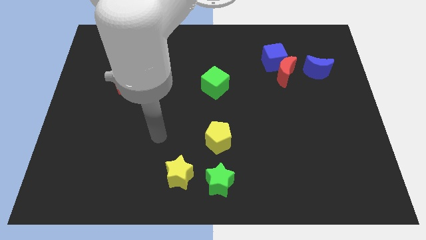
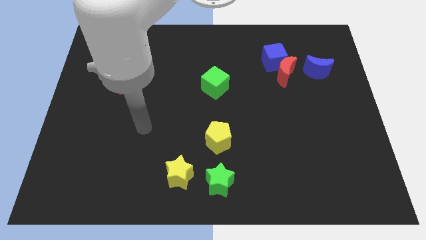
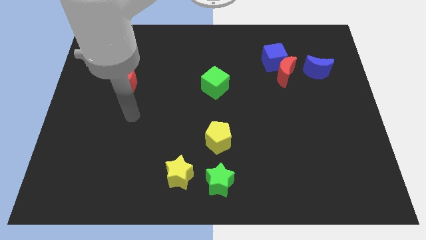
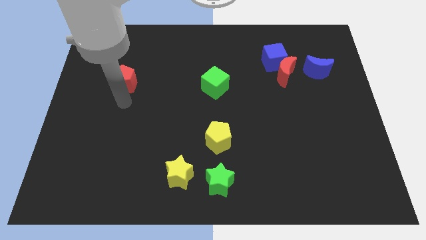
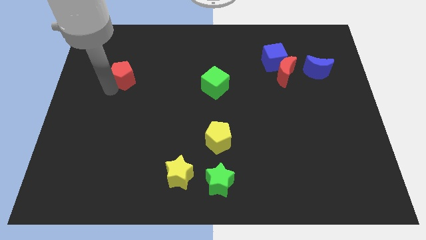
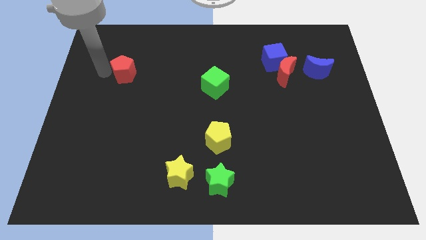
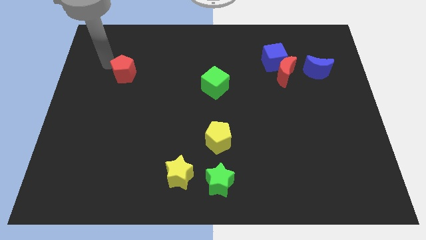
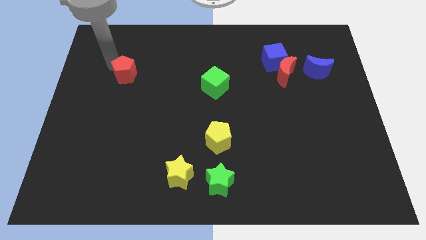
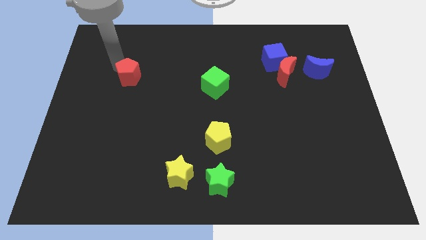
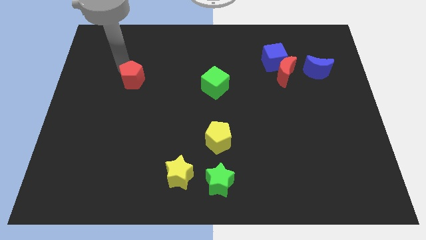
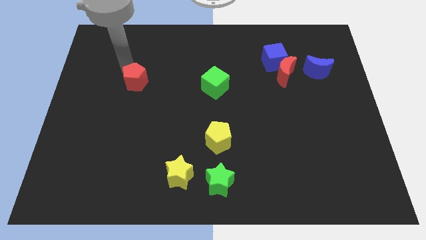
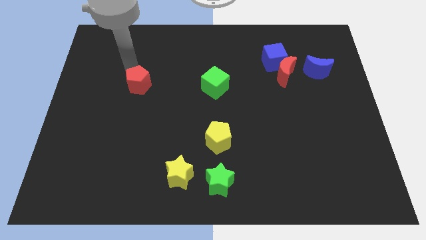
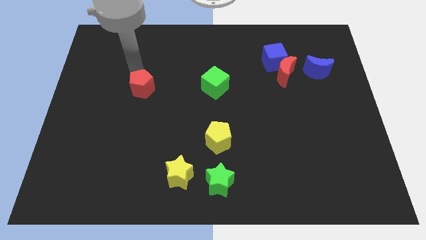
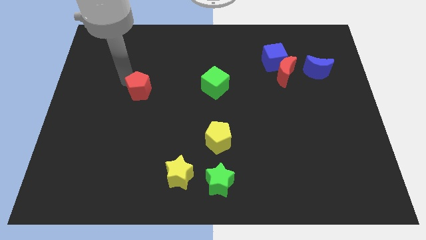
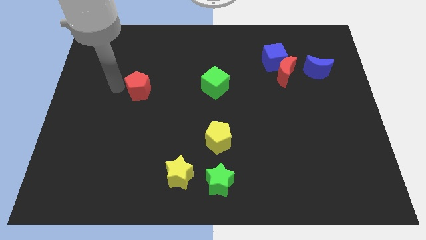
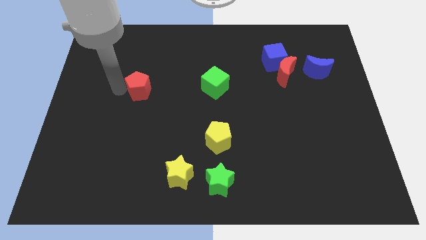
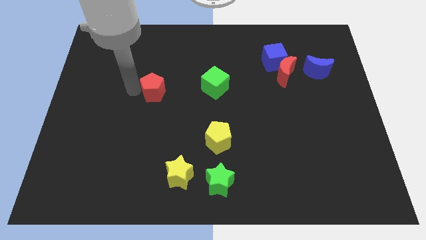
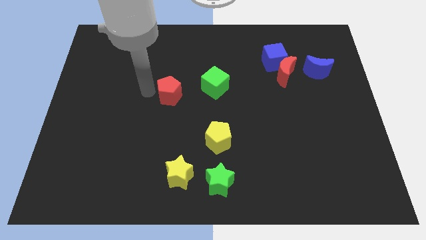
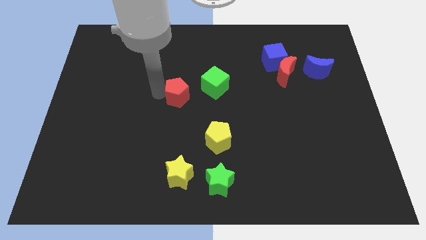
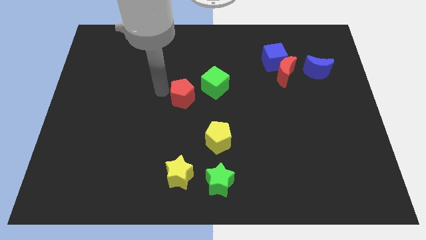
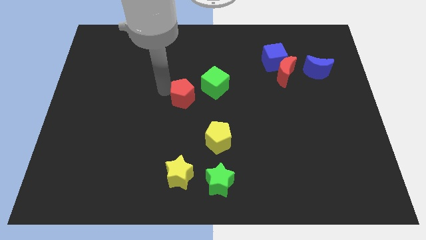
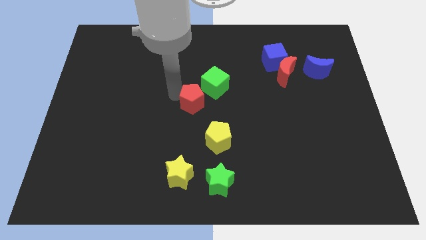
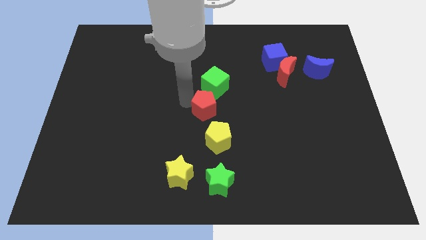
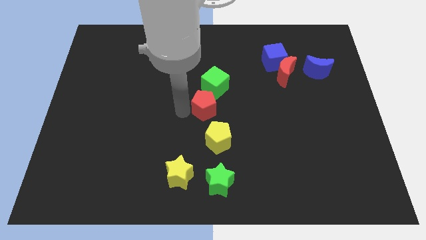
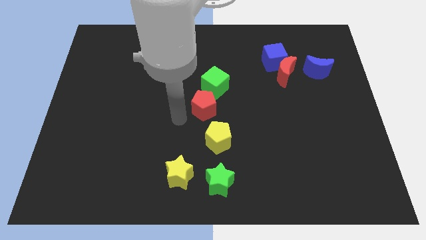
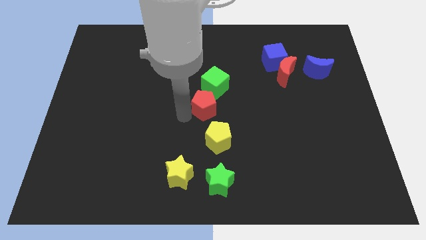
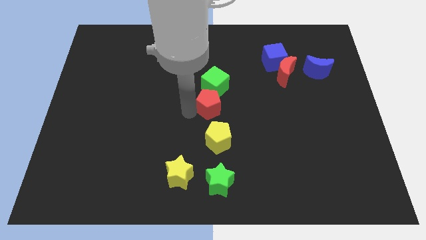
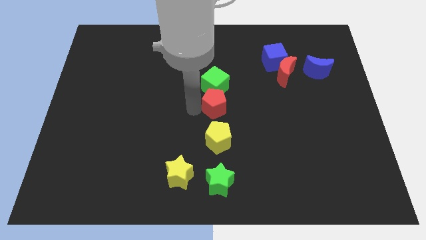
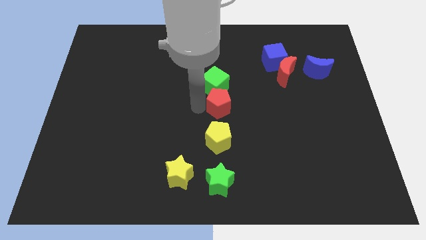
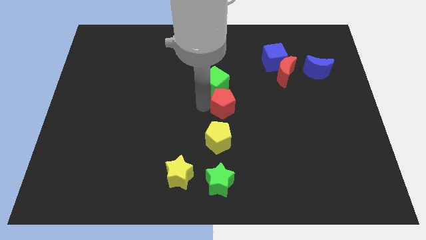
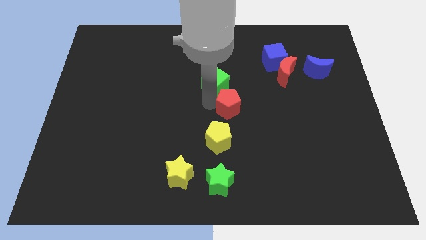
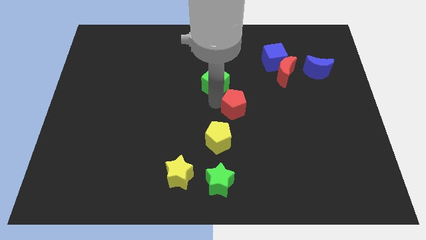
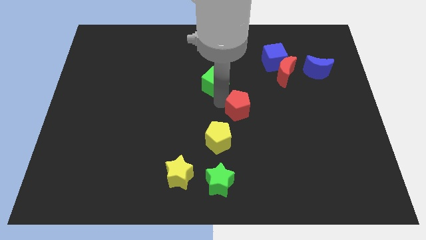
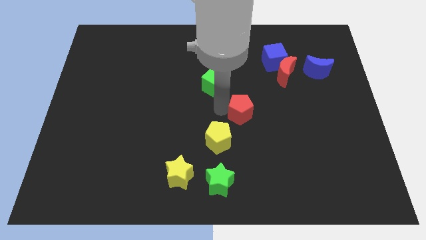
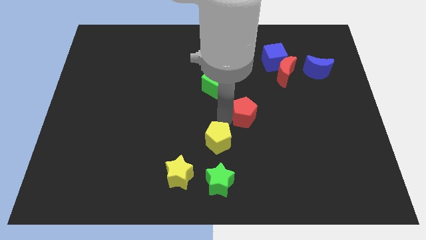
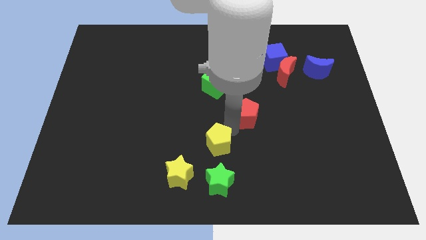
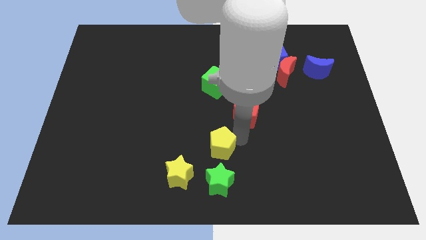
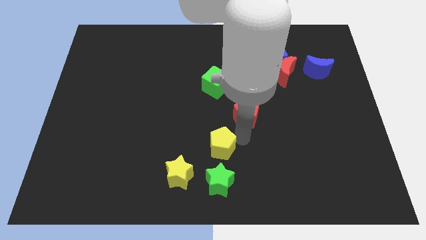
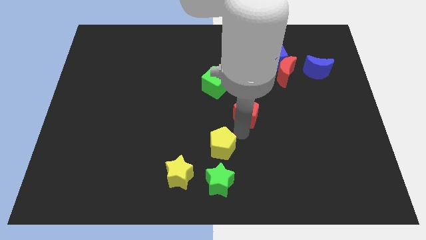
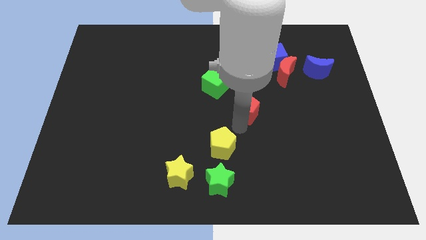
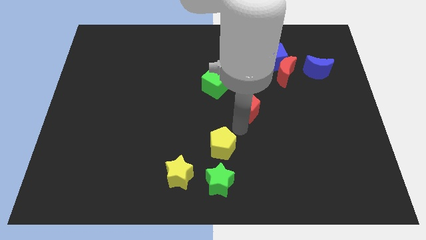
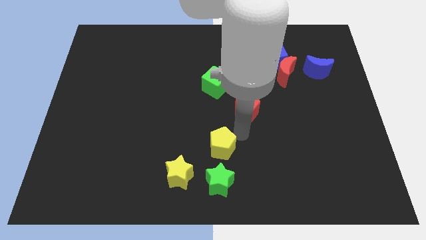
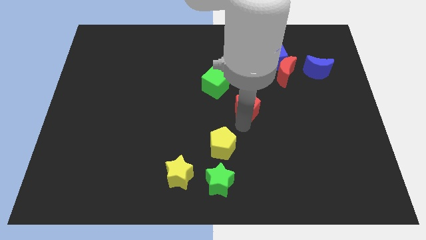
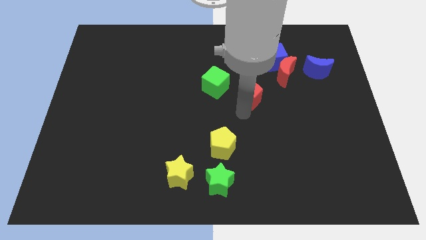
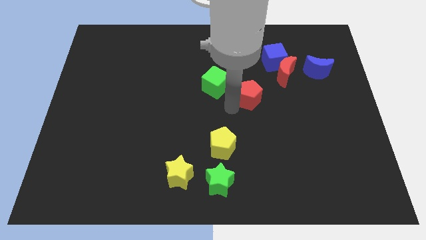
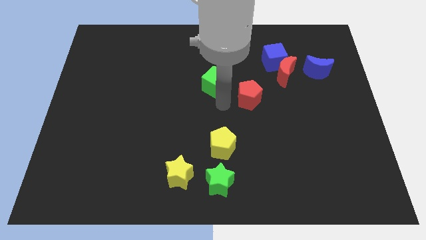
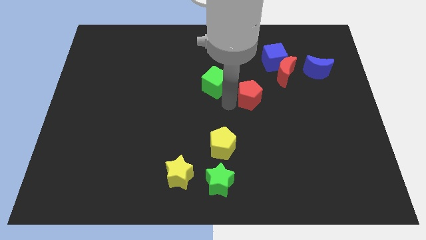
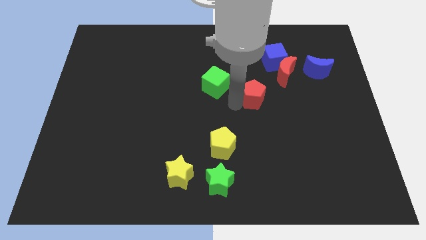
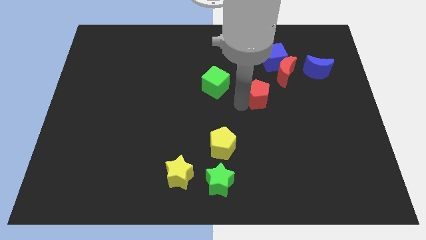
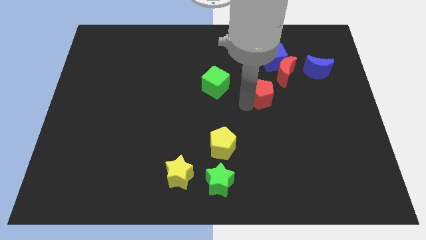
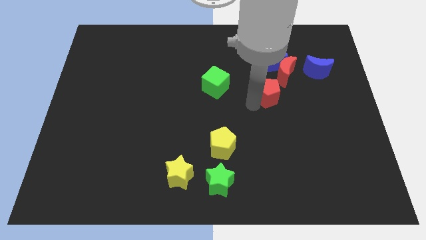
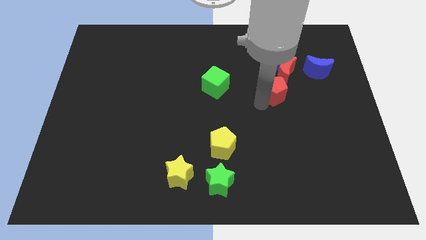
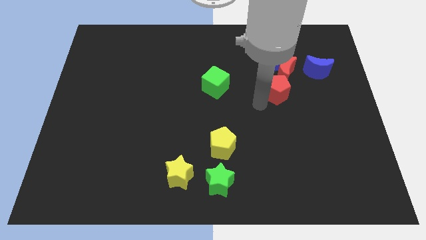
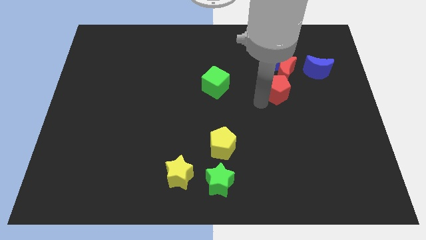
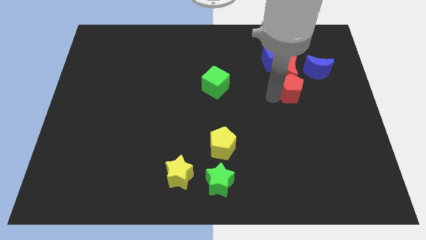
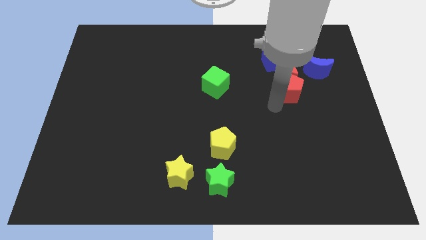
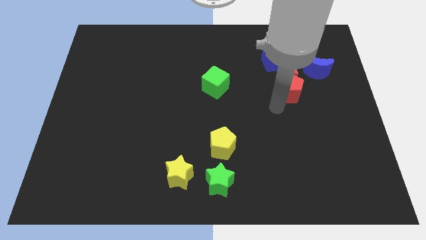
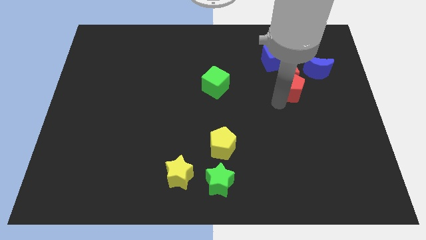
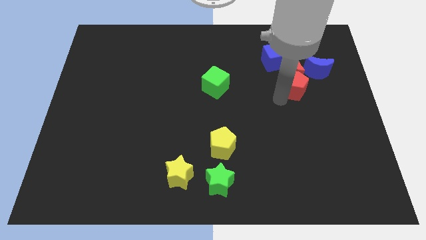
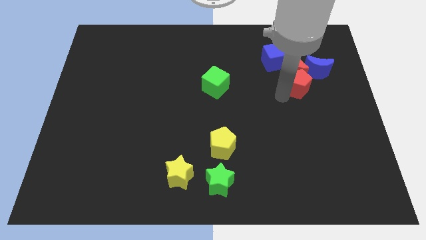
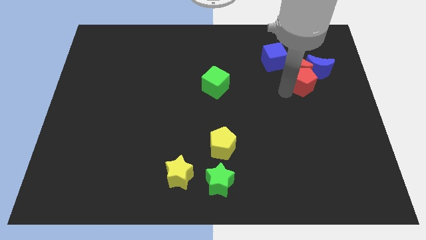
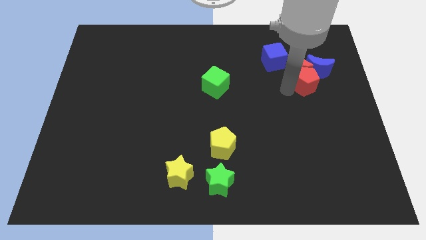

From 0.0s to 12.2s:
slide the red pentagon towards the blue moon

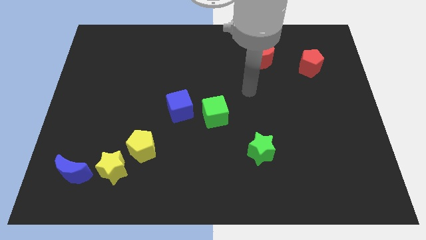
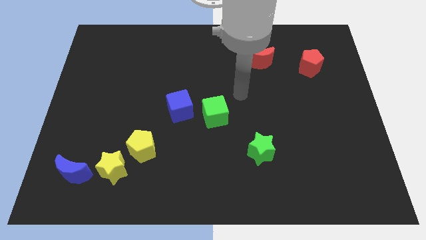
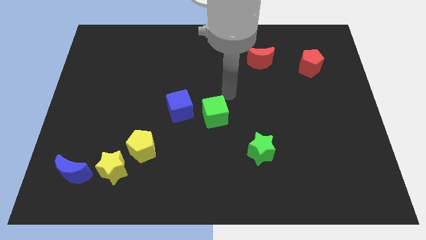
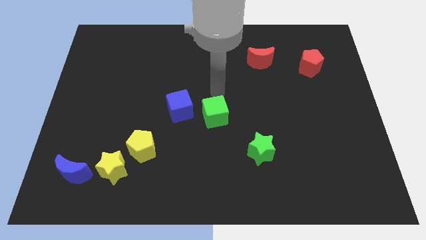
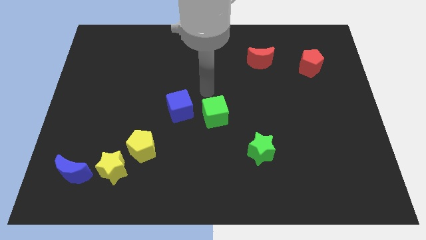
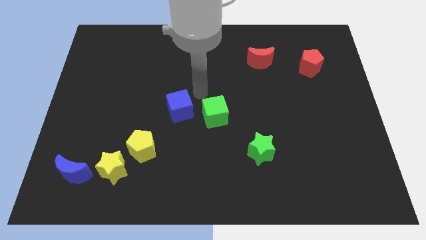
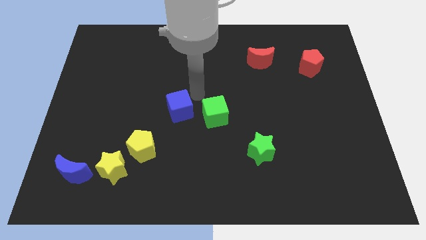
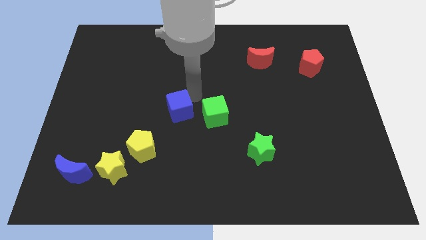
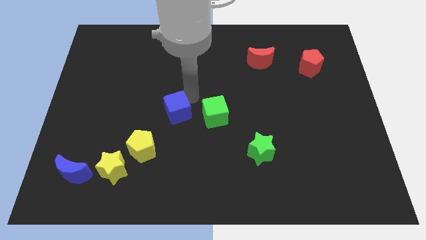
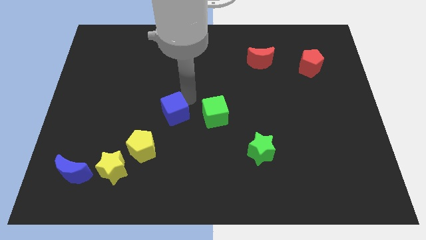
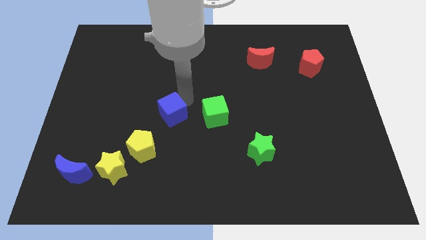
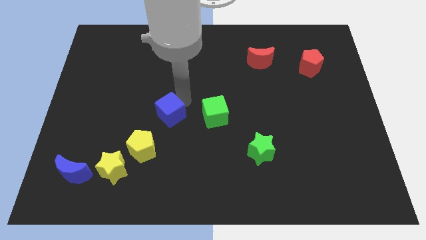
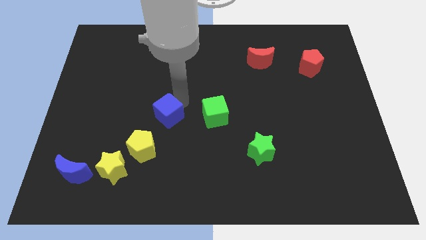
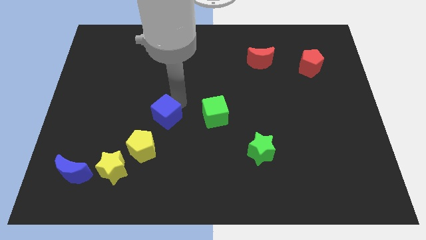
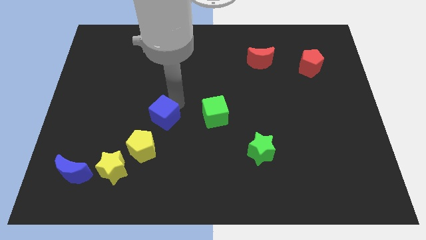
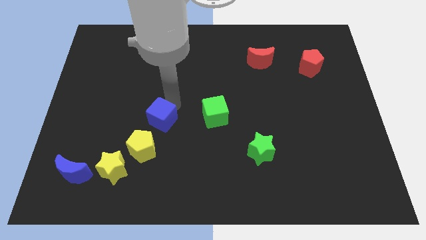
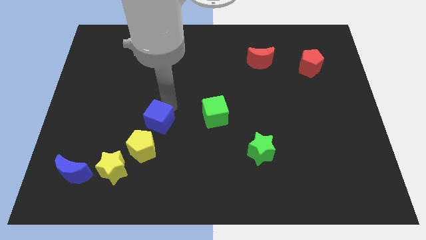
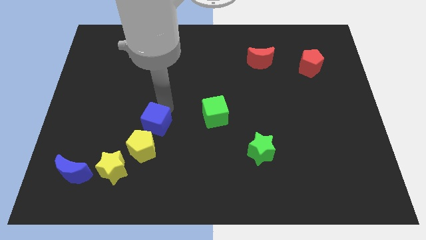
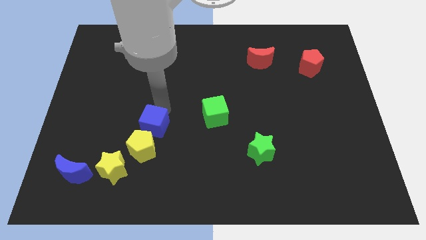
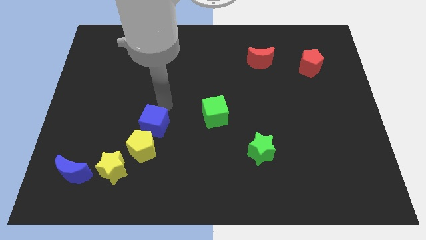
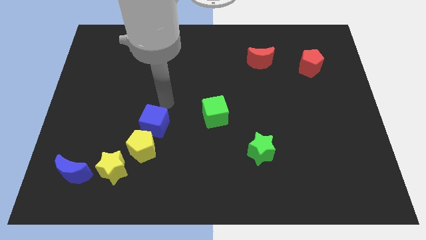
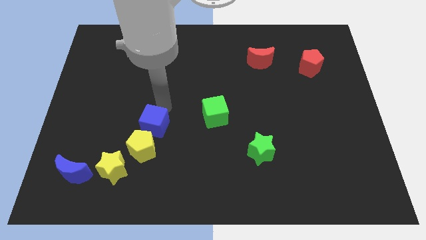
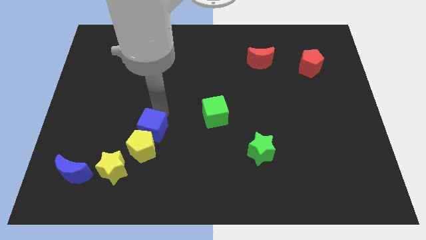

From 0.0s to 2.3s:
move the blue cube towards the yellow pentagon
